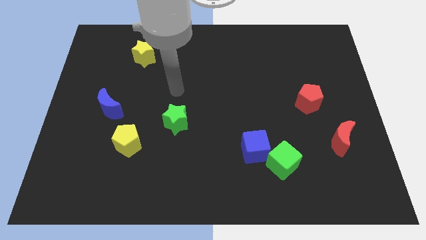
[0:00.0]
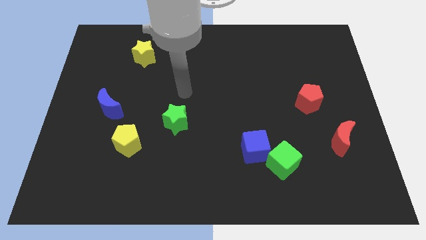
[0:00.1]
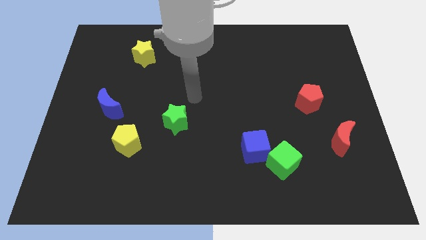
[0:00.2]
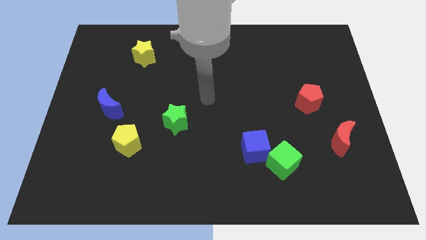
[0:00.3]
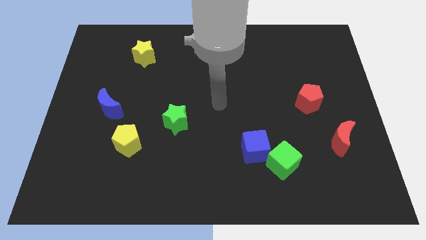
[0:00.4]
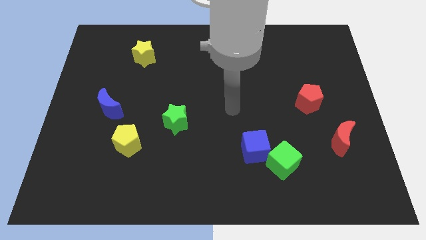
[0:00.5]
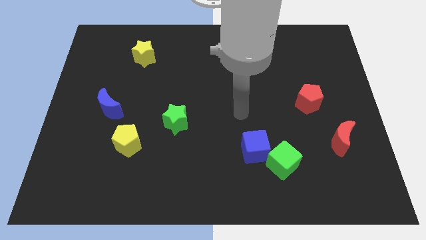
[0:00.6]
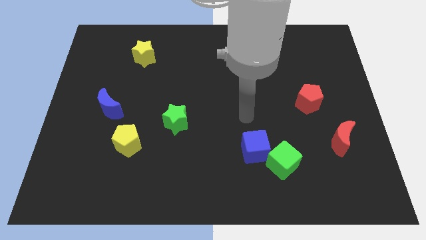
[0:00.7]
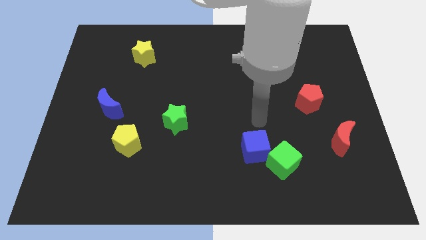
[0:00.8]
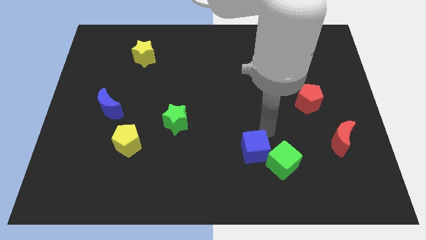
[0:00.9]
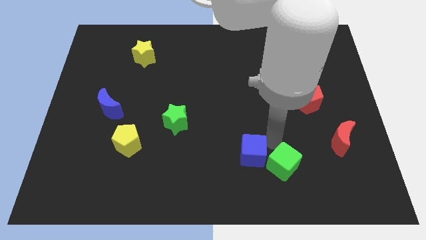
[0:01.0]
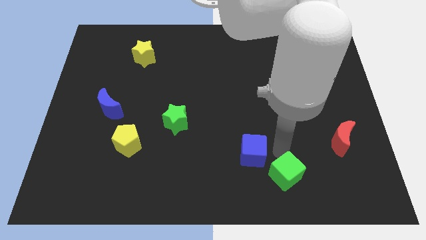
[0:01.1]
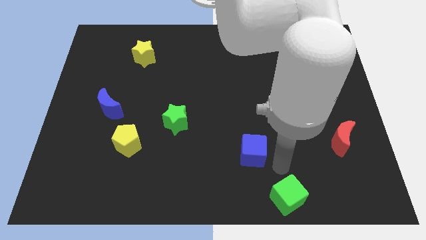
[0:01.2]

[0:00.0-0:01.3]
move the blue cube away from the green cube

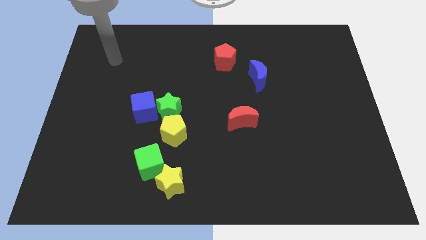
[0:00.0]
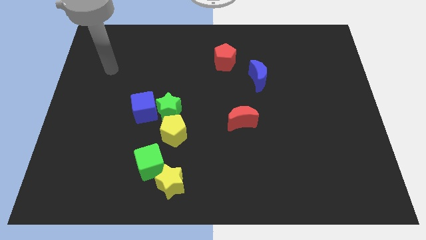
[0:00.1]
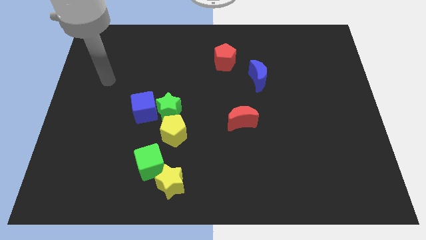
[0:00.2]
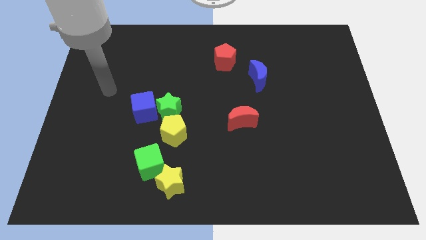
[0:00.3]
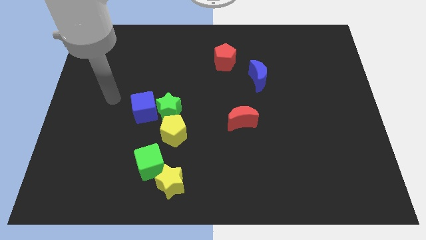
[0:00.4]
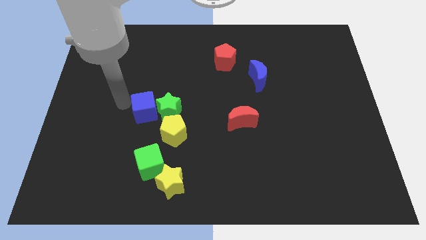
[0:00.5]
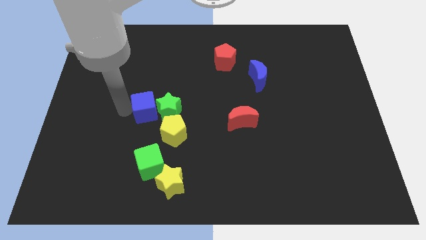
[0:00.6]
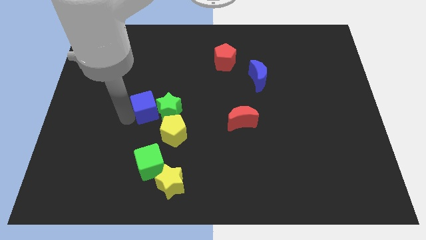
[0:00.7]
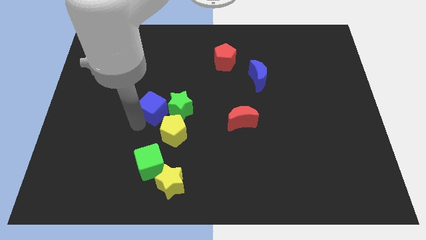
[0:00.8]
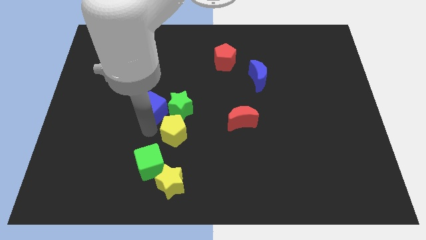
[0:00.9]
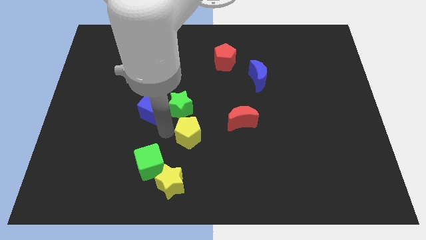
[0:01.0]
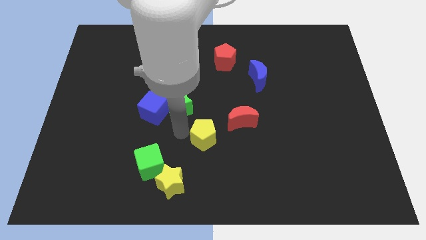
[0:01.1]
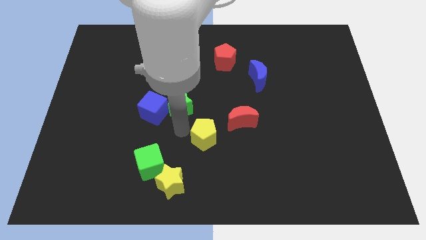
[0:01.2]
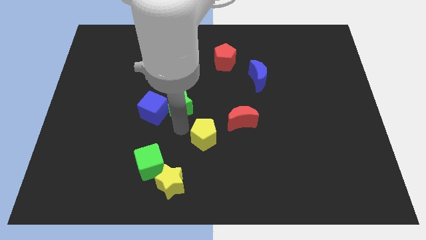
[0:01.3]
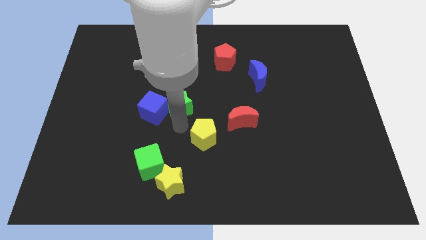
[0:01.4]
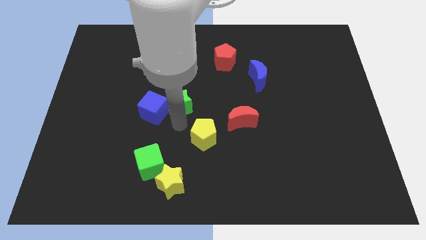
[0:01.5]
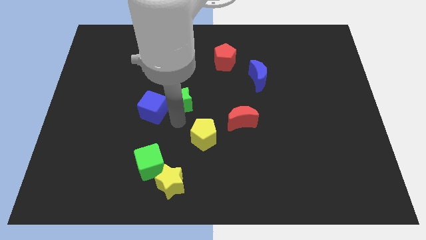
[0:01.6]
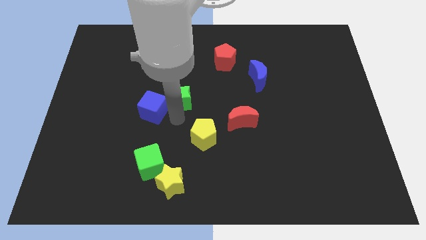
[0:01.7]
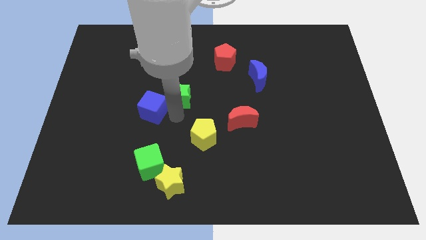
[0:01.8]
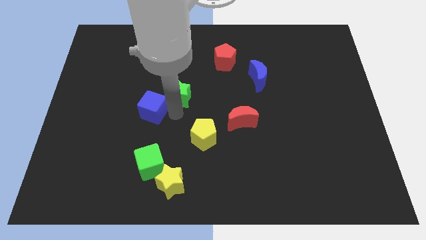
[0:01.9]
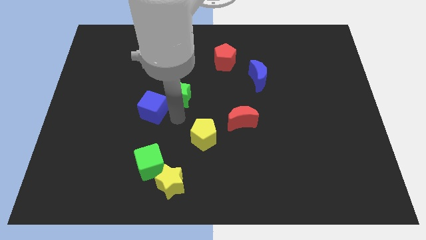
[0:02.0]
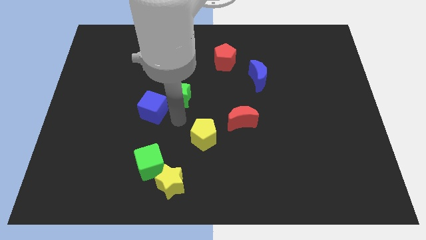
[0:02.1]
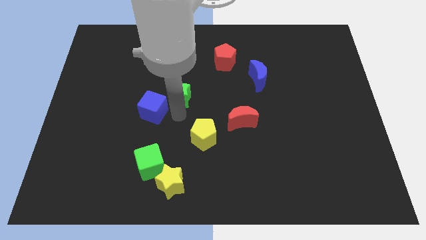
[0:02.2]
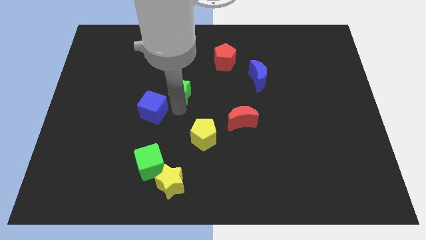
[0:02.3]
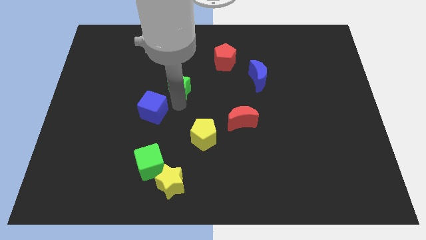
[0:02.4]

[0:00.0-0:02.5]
move the green star away from the blue cube and yellow pentagon

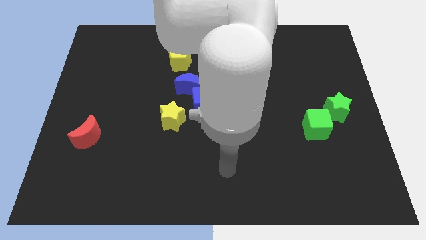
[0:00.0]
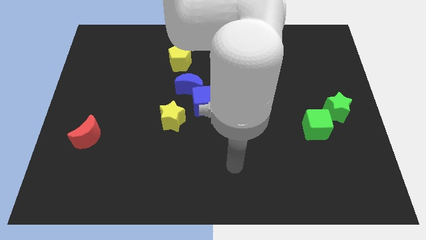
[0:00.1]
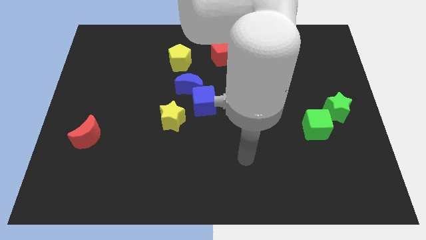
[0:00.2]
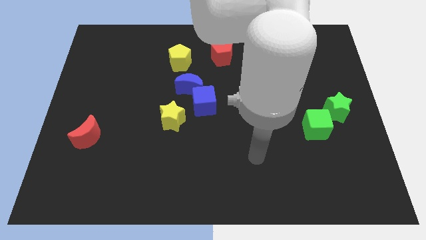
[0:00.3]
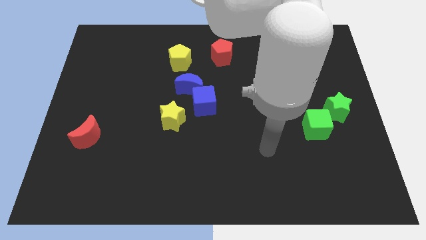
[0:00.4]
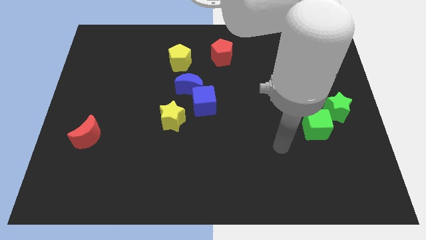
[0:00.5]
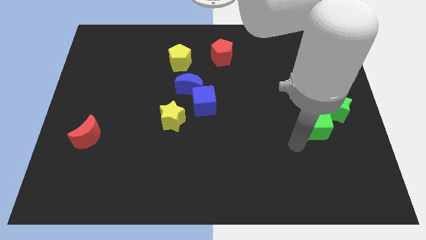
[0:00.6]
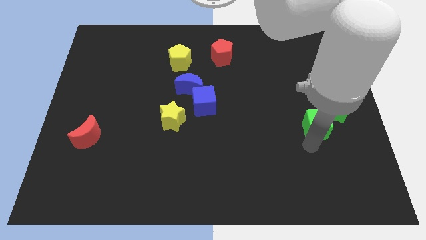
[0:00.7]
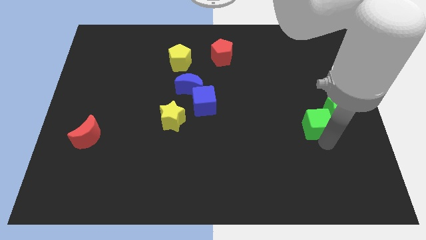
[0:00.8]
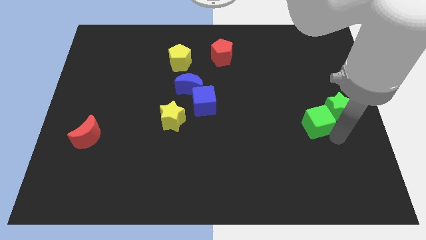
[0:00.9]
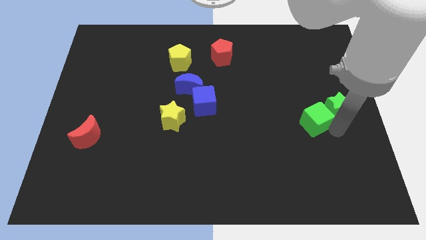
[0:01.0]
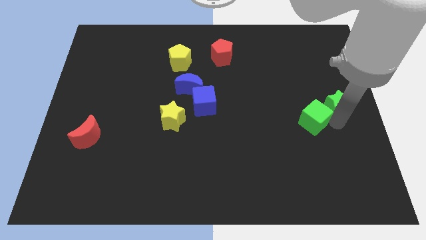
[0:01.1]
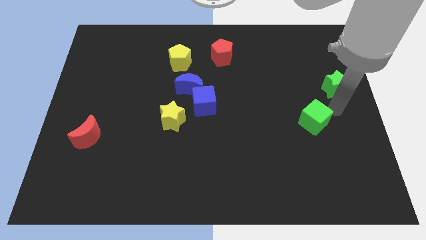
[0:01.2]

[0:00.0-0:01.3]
move the green cube away from the green star

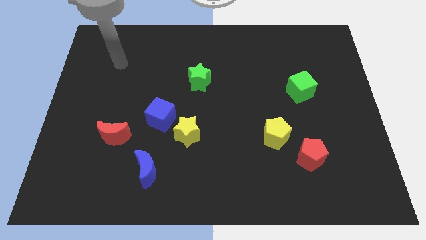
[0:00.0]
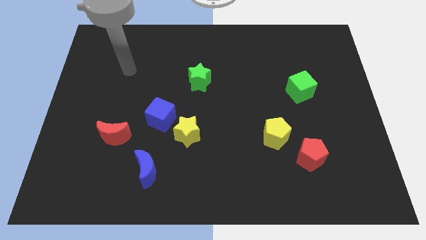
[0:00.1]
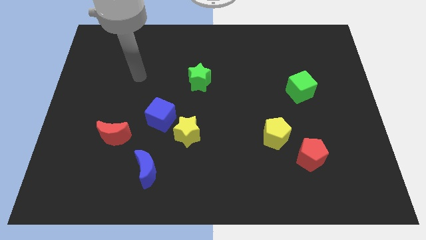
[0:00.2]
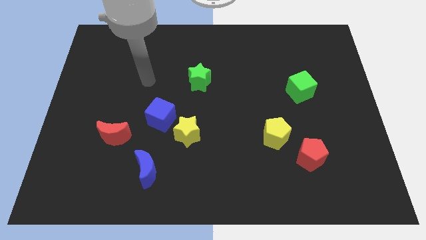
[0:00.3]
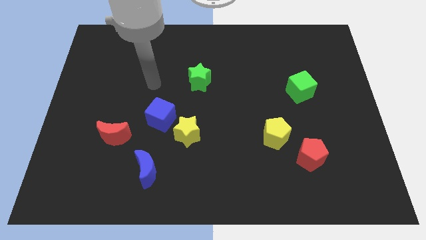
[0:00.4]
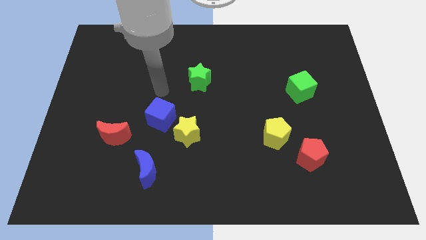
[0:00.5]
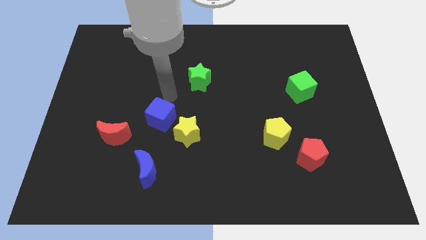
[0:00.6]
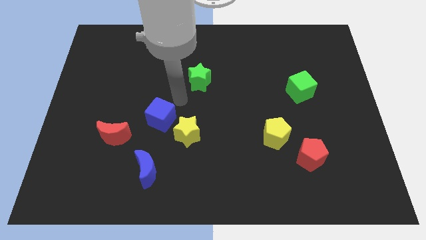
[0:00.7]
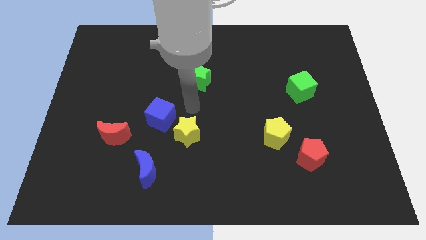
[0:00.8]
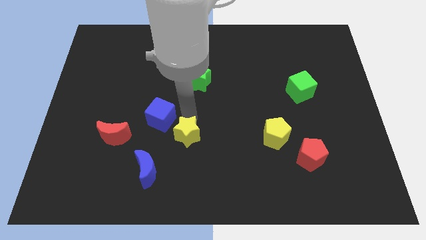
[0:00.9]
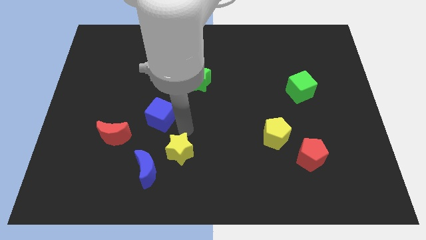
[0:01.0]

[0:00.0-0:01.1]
move the blue cube away from the yellow star

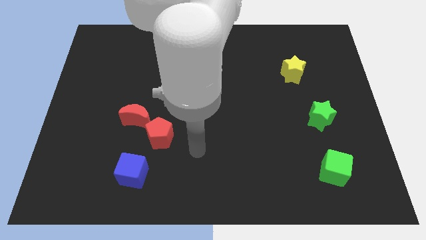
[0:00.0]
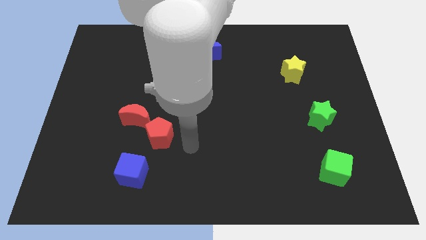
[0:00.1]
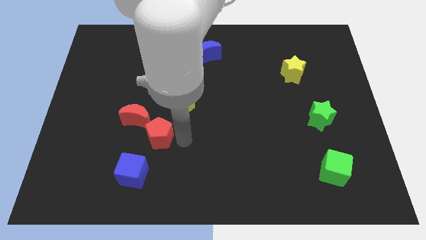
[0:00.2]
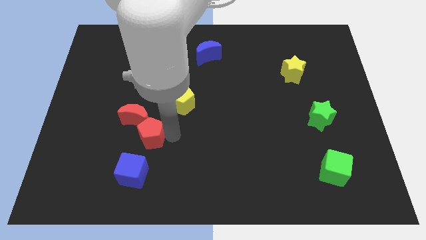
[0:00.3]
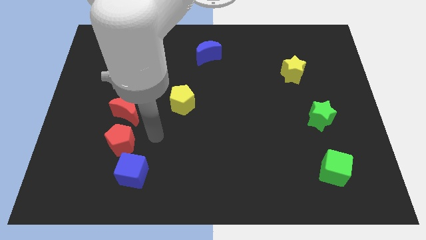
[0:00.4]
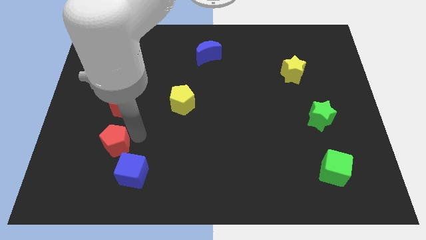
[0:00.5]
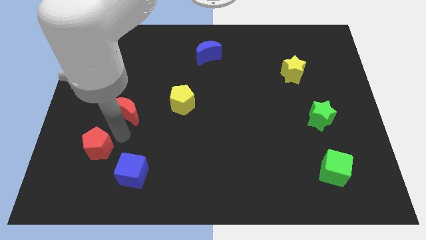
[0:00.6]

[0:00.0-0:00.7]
separate the red moon from the red pentagon

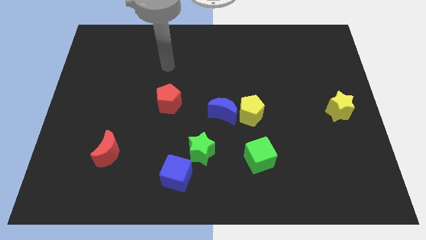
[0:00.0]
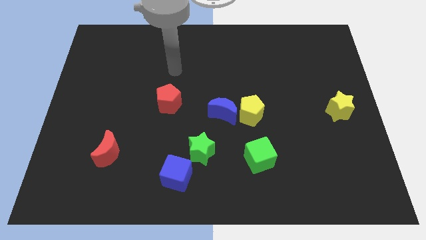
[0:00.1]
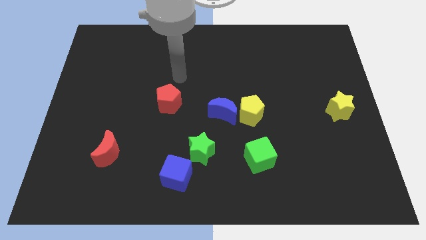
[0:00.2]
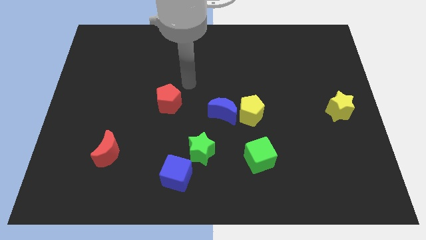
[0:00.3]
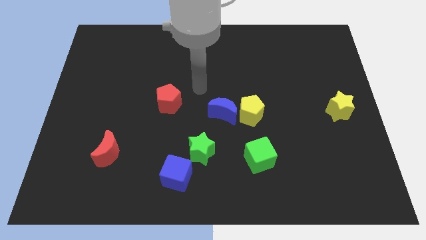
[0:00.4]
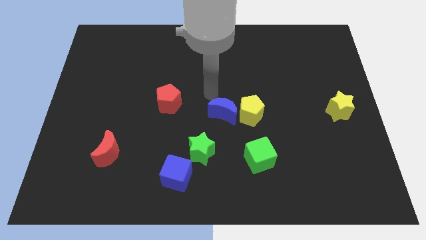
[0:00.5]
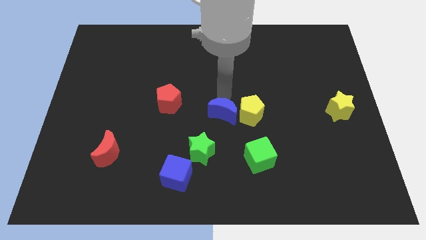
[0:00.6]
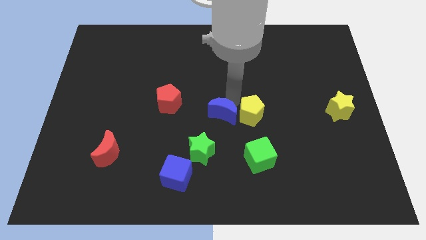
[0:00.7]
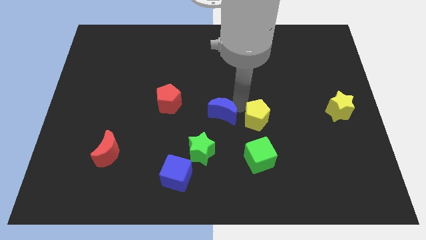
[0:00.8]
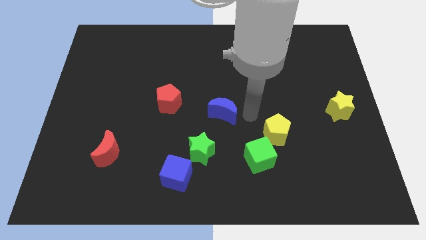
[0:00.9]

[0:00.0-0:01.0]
pull the blue moon apart from the yellow pentagon

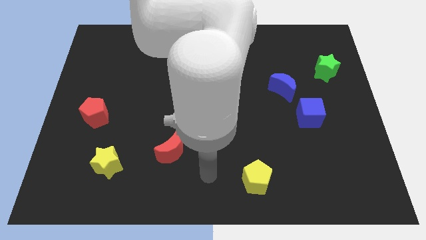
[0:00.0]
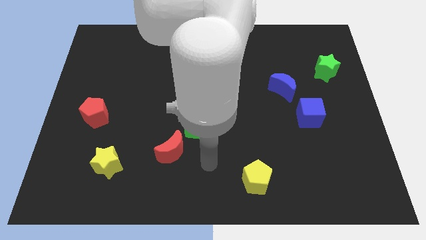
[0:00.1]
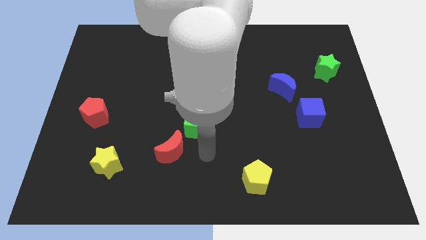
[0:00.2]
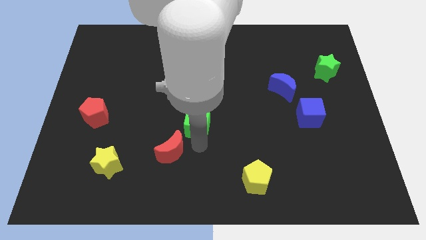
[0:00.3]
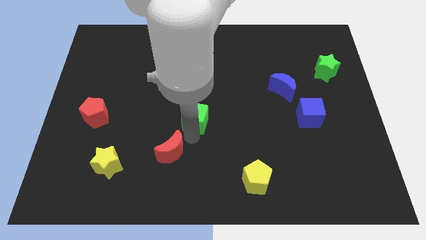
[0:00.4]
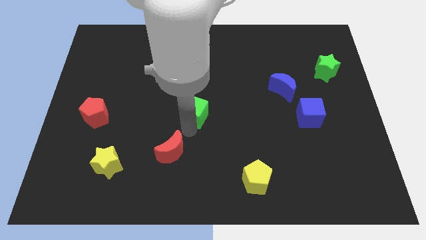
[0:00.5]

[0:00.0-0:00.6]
pull the red moon apart from the green cube

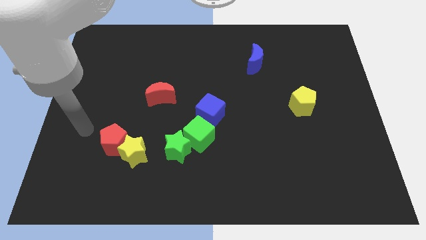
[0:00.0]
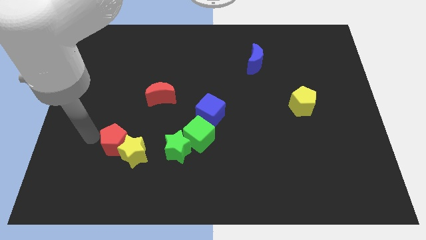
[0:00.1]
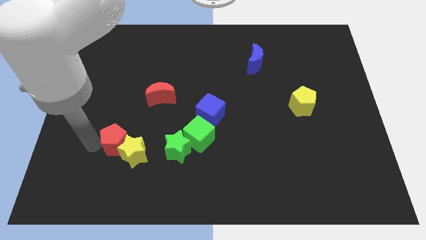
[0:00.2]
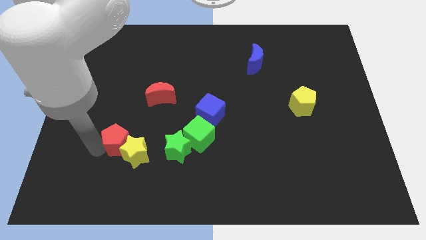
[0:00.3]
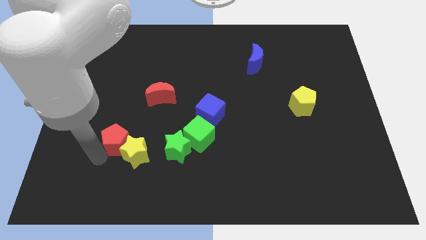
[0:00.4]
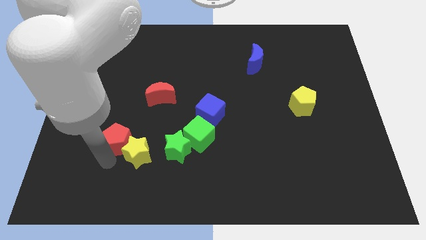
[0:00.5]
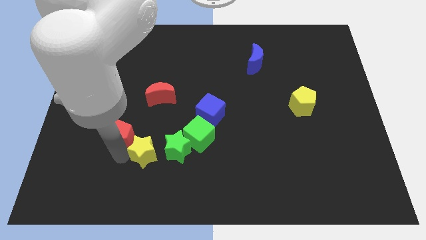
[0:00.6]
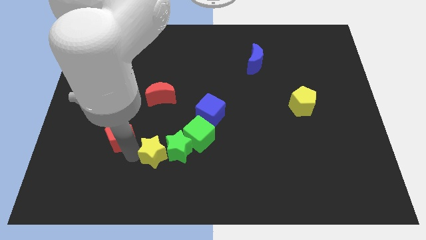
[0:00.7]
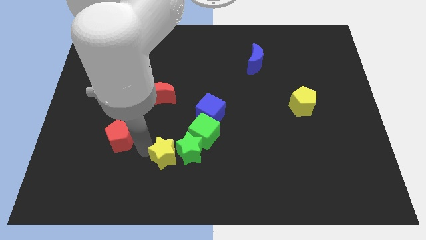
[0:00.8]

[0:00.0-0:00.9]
separate the red pentagon from the yellow star

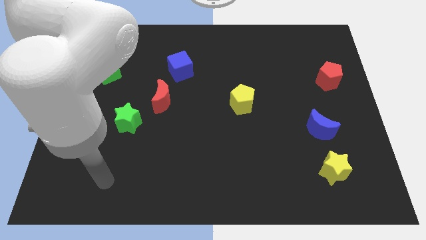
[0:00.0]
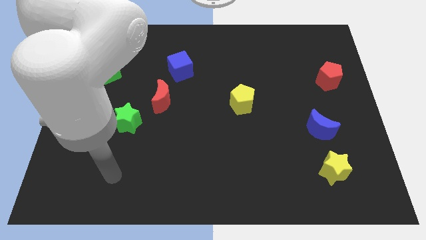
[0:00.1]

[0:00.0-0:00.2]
pull the red moon apart from the green star
